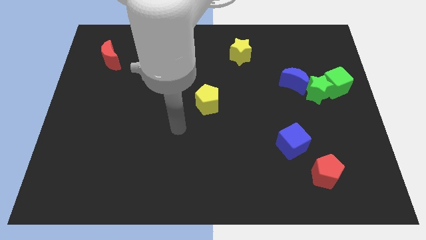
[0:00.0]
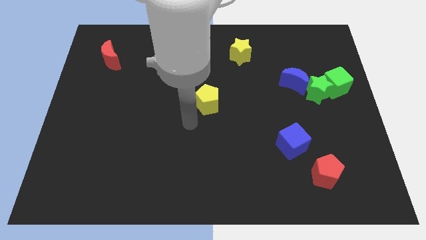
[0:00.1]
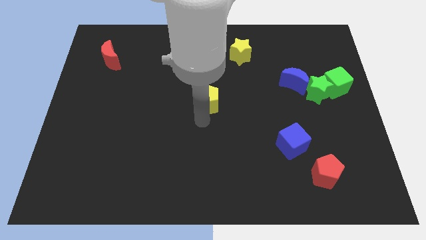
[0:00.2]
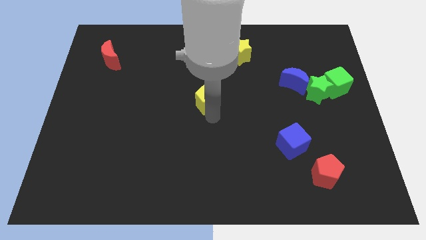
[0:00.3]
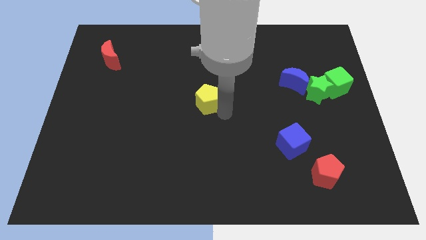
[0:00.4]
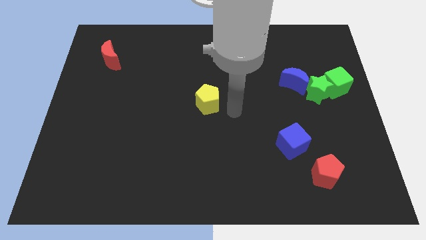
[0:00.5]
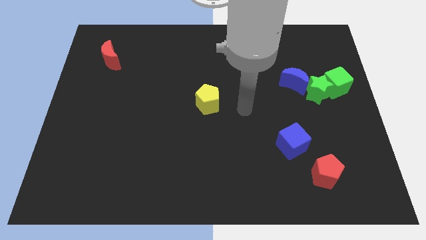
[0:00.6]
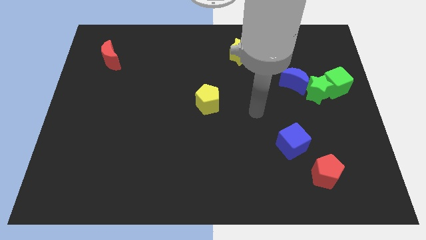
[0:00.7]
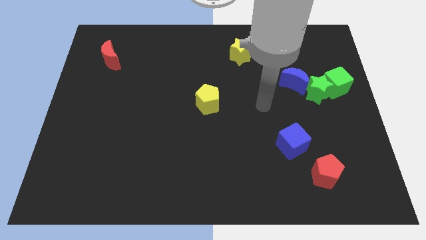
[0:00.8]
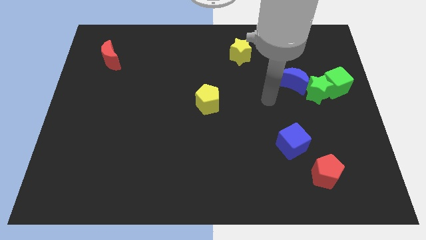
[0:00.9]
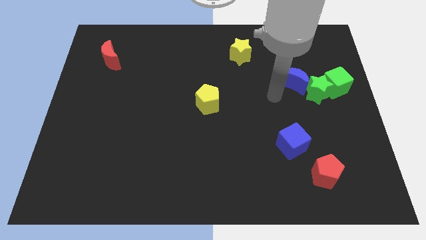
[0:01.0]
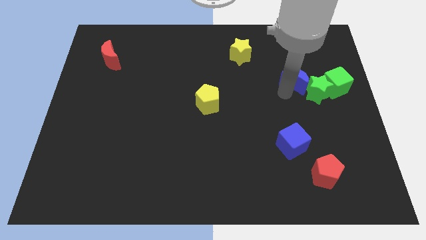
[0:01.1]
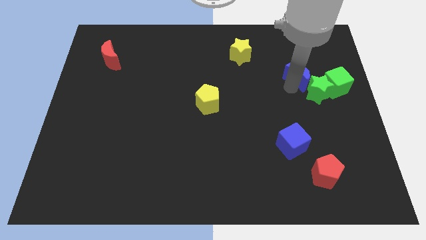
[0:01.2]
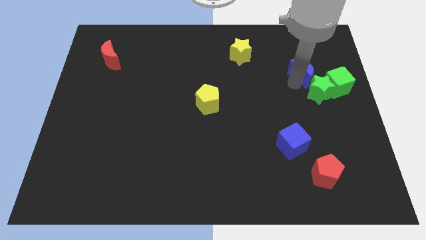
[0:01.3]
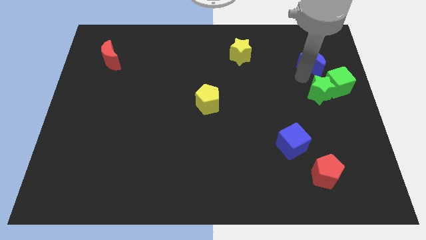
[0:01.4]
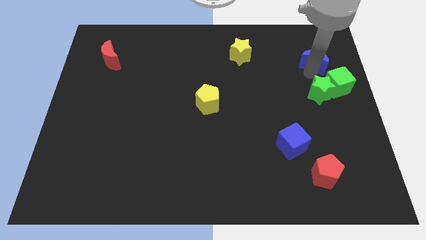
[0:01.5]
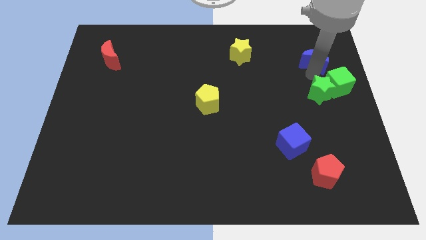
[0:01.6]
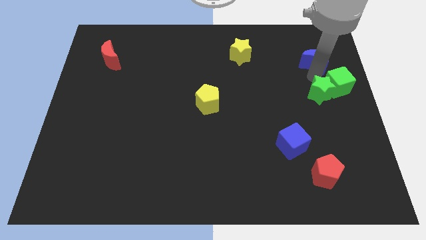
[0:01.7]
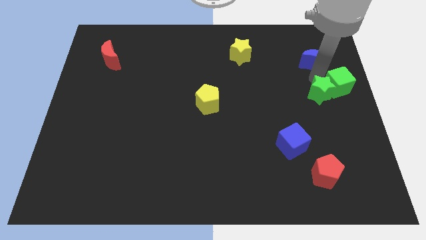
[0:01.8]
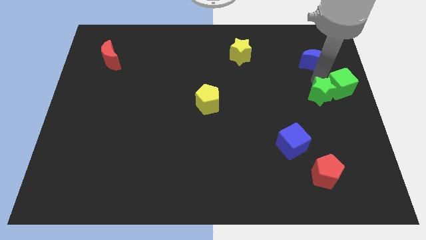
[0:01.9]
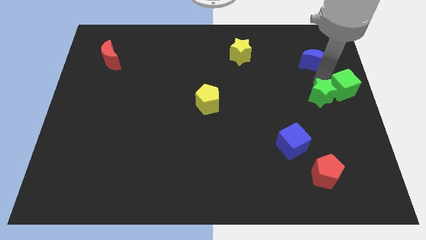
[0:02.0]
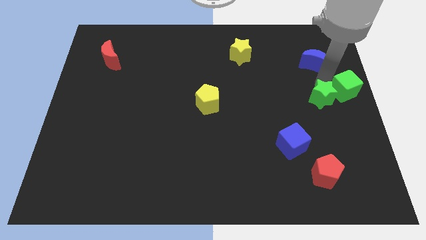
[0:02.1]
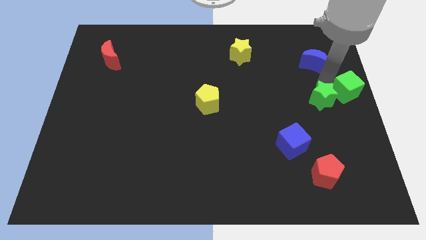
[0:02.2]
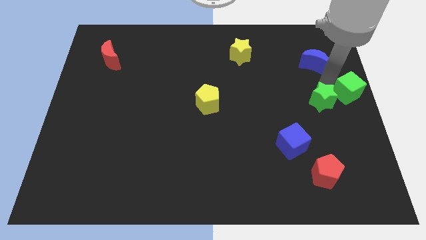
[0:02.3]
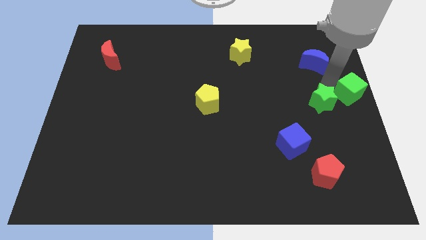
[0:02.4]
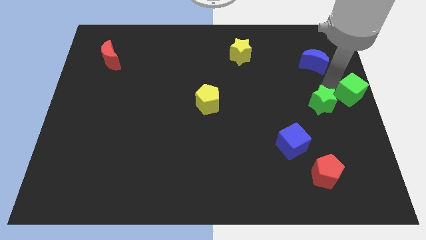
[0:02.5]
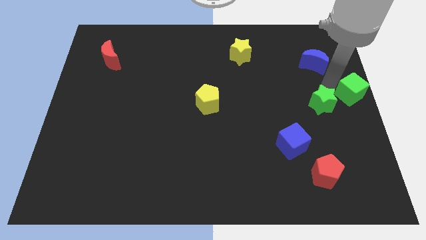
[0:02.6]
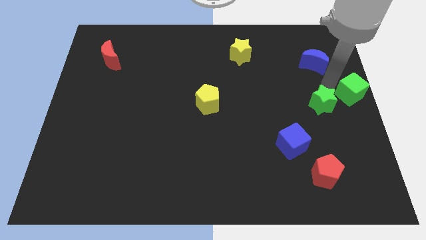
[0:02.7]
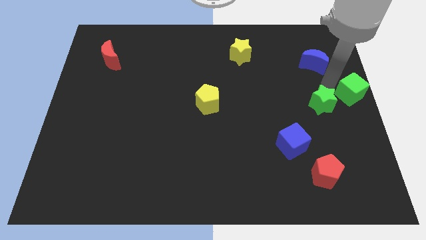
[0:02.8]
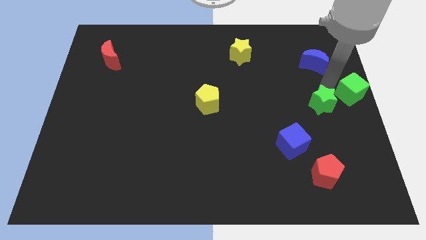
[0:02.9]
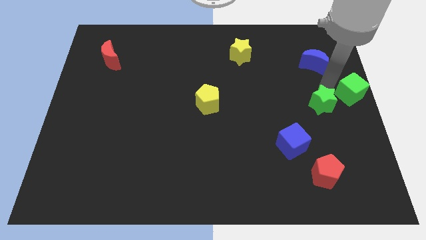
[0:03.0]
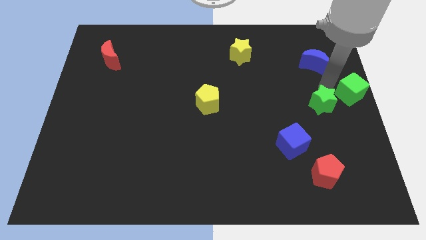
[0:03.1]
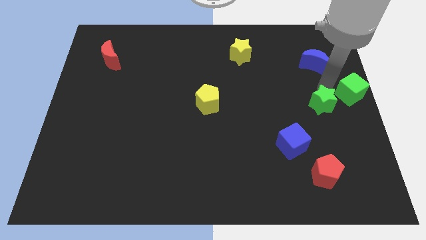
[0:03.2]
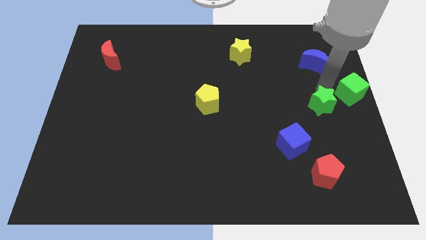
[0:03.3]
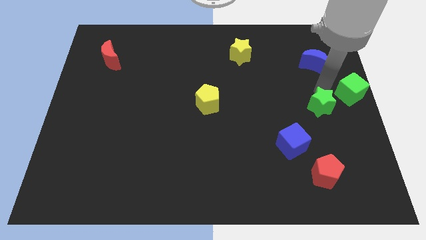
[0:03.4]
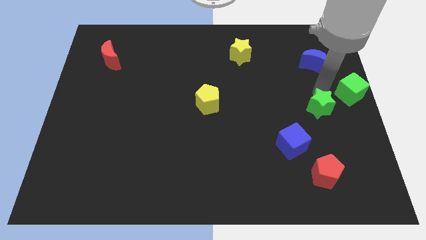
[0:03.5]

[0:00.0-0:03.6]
move the green star away from the green cube and blue moon

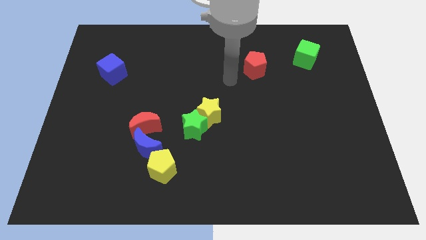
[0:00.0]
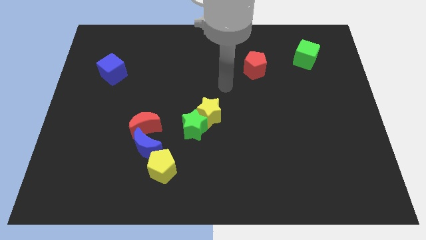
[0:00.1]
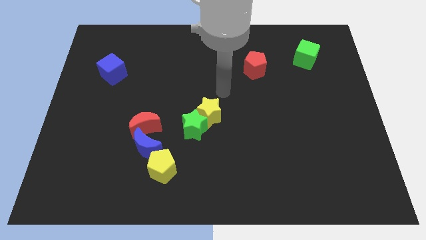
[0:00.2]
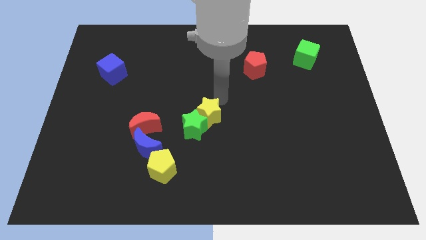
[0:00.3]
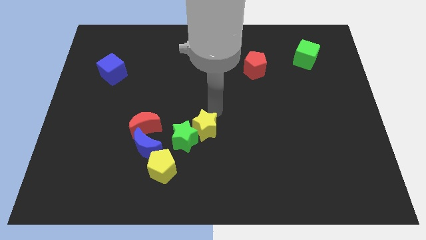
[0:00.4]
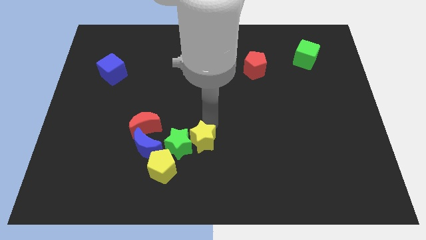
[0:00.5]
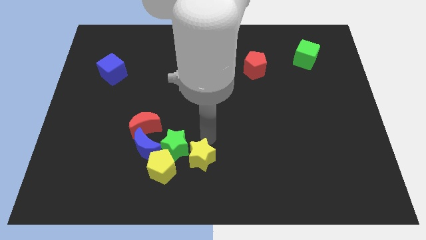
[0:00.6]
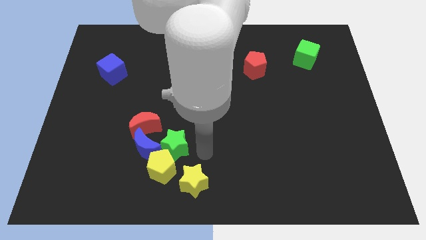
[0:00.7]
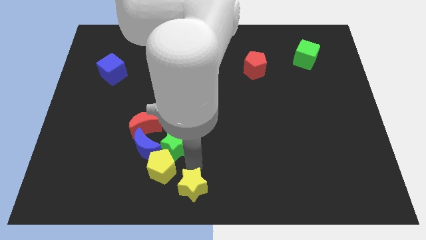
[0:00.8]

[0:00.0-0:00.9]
separate the green star from the yellow star

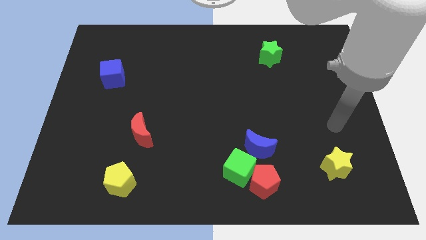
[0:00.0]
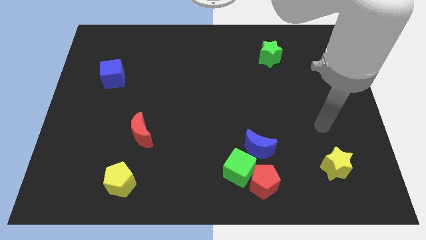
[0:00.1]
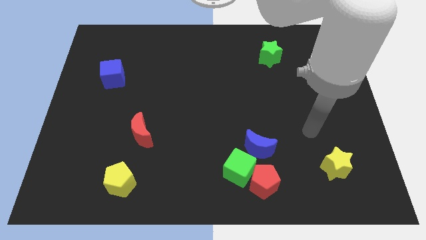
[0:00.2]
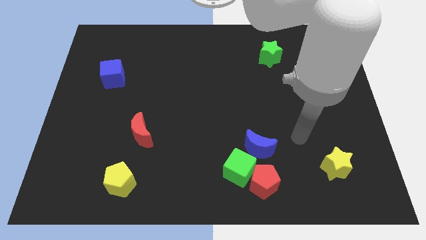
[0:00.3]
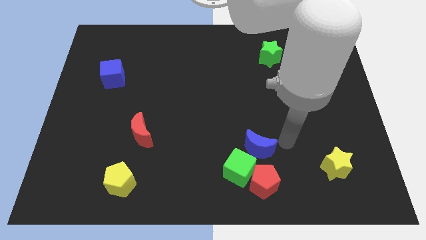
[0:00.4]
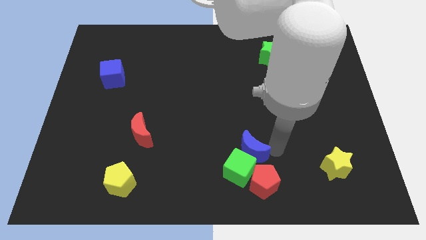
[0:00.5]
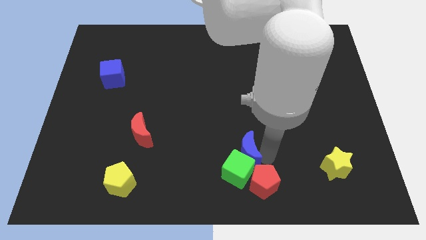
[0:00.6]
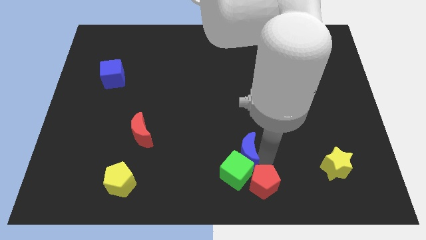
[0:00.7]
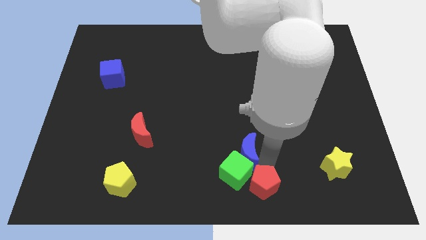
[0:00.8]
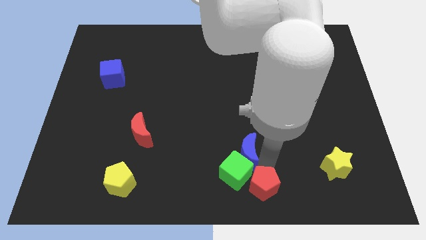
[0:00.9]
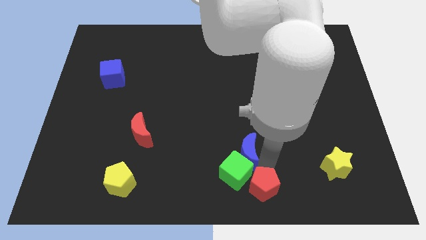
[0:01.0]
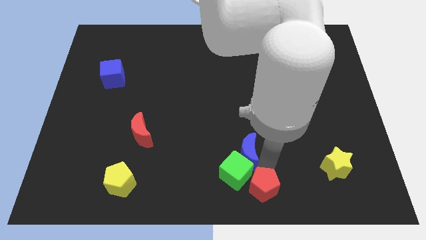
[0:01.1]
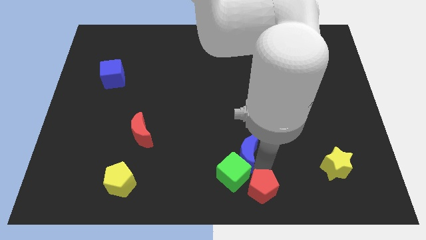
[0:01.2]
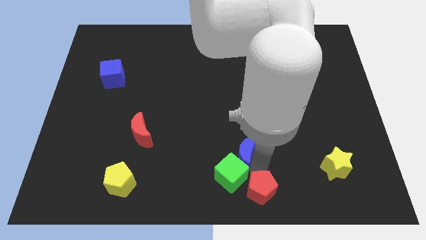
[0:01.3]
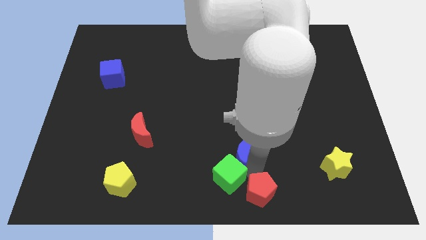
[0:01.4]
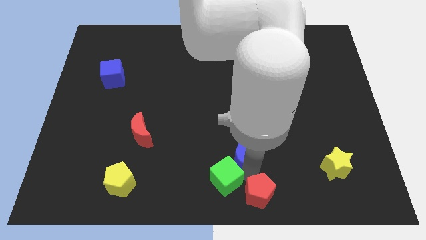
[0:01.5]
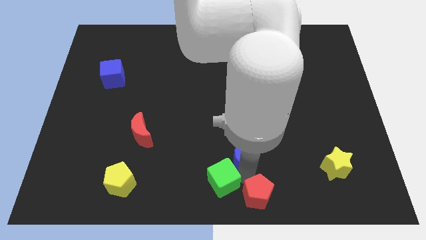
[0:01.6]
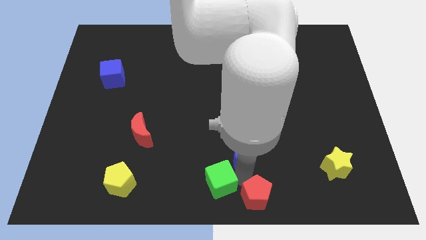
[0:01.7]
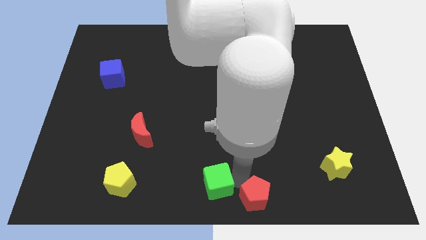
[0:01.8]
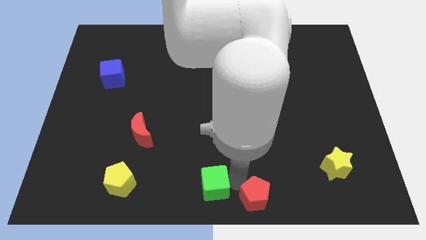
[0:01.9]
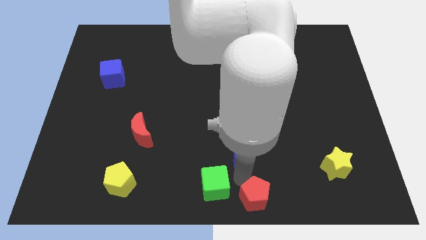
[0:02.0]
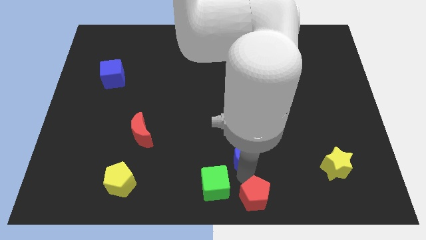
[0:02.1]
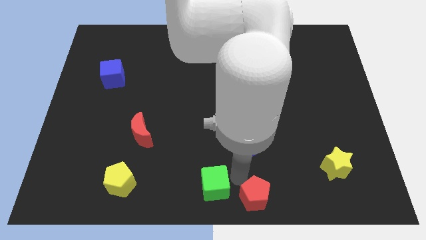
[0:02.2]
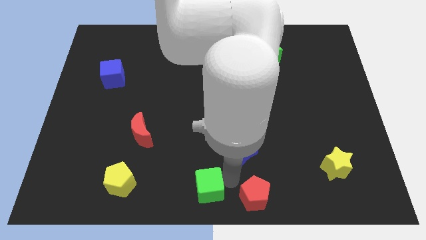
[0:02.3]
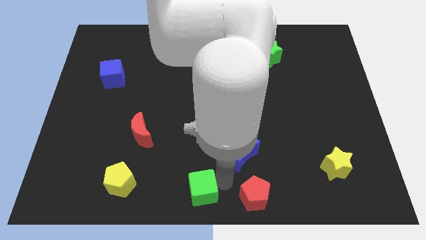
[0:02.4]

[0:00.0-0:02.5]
separate the green cube from the red pentagon and blue moon

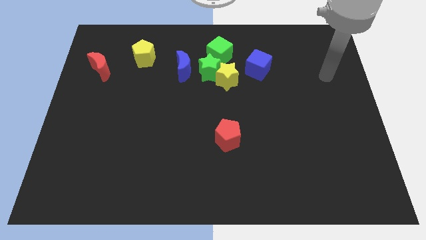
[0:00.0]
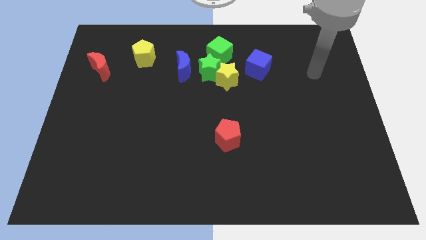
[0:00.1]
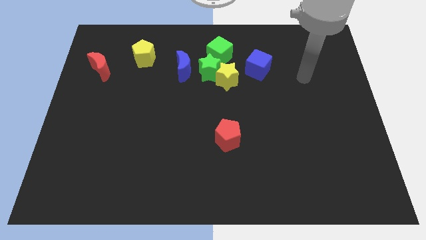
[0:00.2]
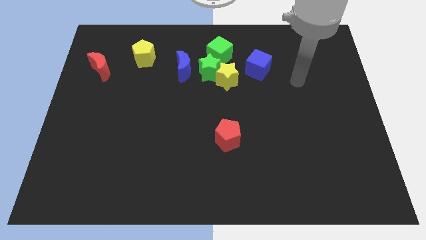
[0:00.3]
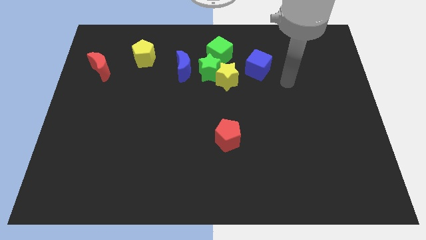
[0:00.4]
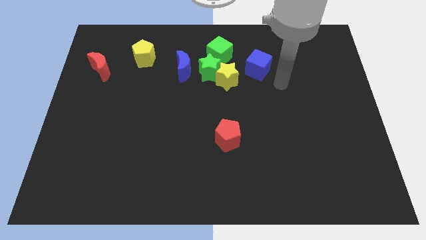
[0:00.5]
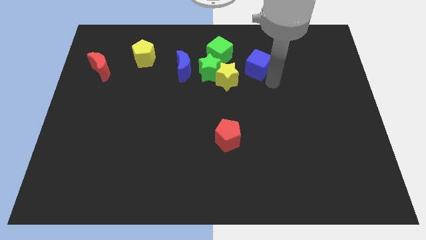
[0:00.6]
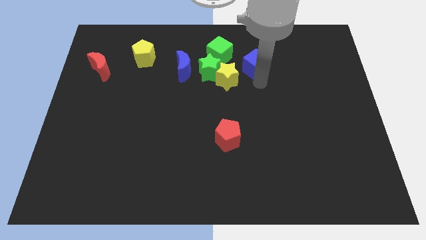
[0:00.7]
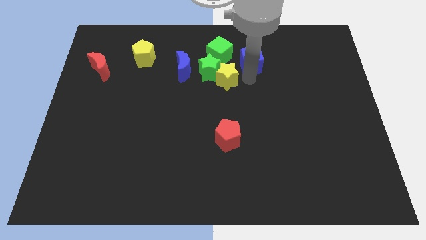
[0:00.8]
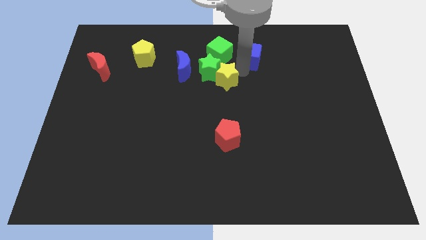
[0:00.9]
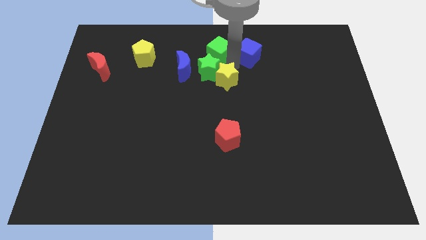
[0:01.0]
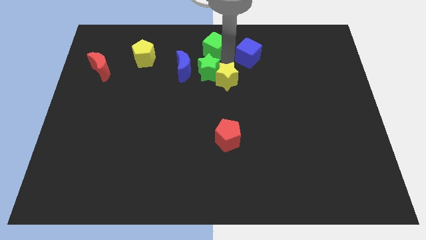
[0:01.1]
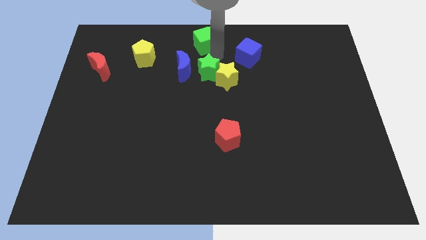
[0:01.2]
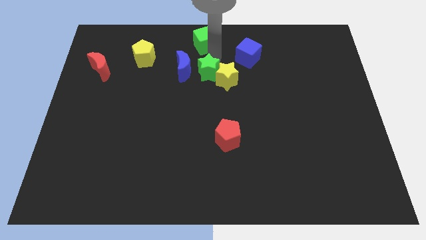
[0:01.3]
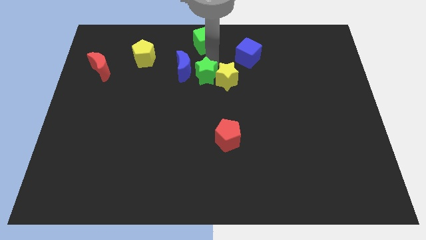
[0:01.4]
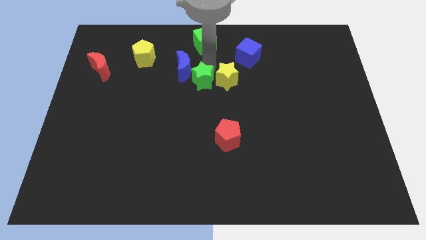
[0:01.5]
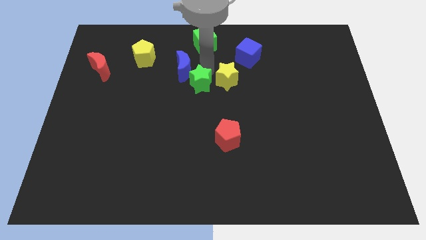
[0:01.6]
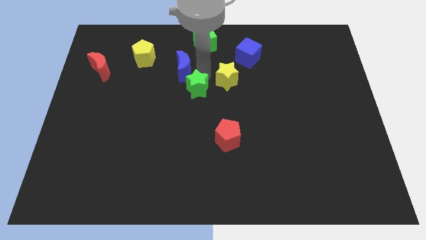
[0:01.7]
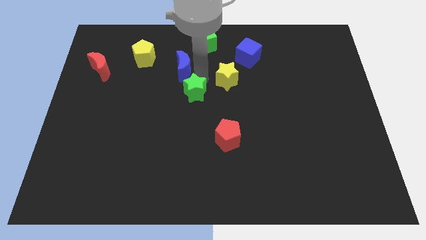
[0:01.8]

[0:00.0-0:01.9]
pull the green star apart from the clump

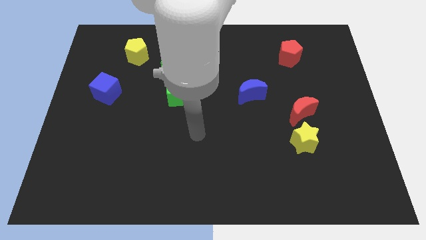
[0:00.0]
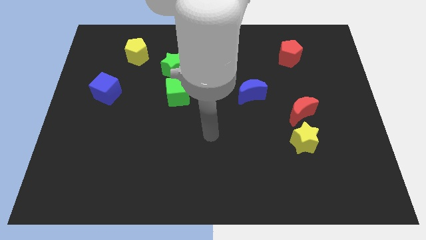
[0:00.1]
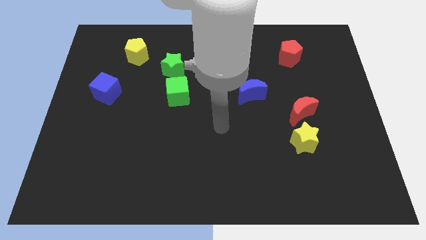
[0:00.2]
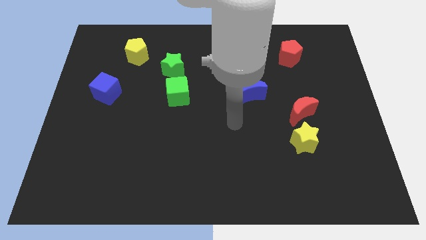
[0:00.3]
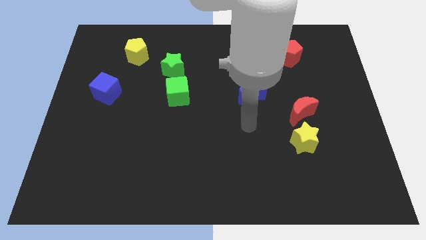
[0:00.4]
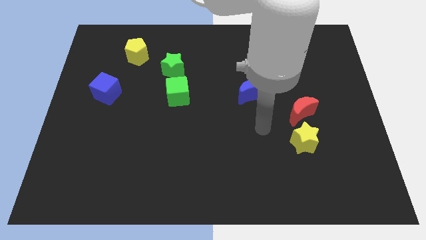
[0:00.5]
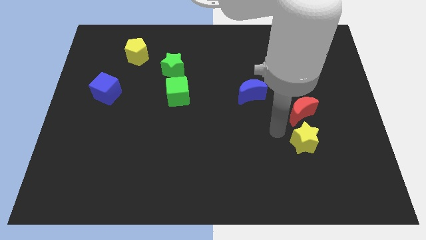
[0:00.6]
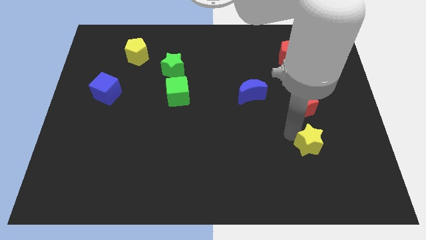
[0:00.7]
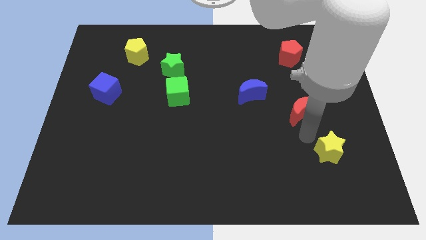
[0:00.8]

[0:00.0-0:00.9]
separate the red moon from the yellow star
